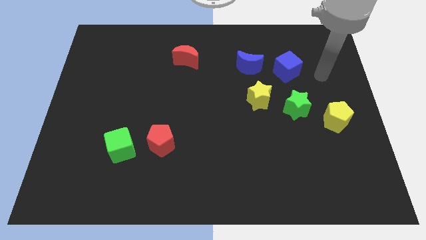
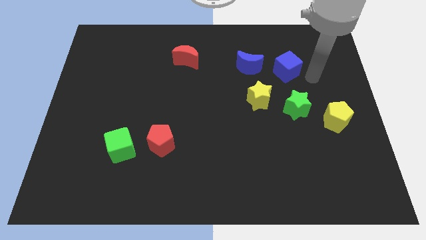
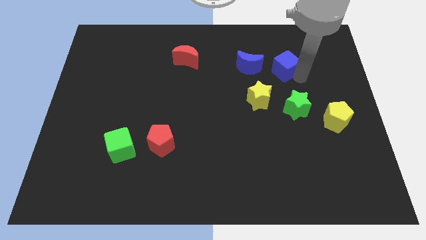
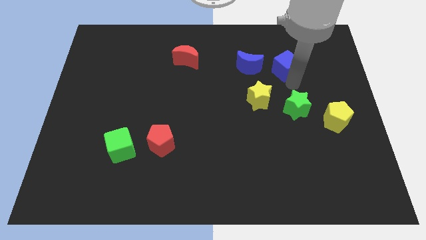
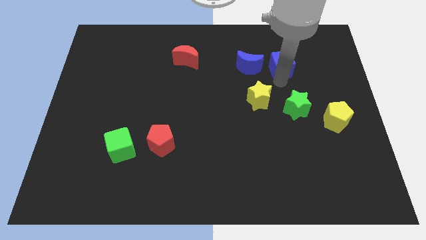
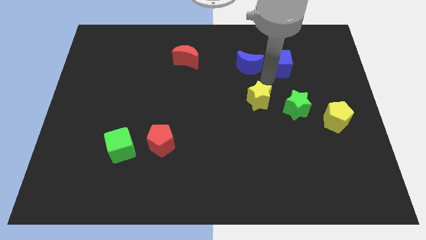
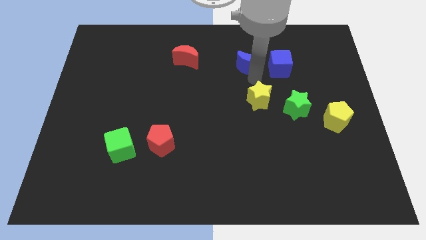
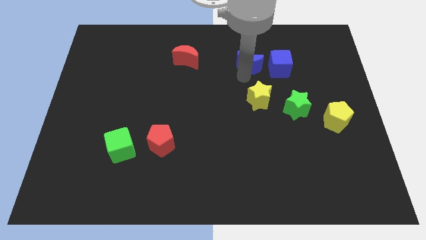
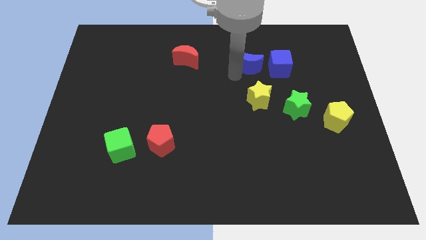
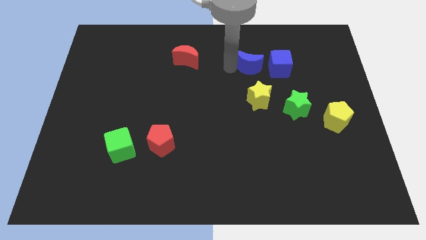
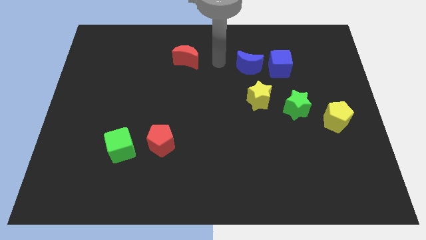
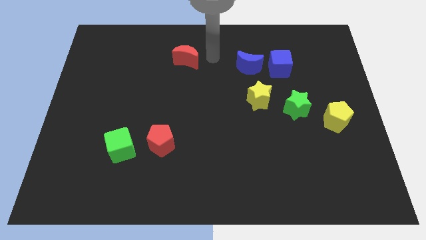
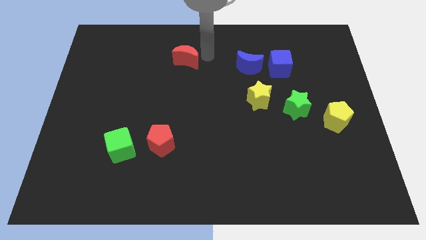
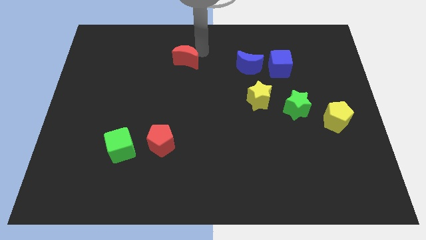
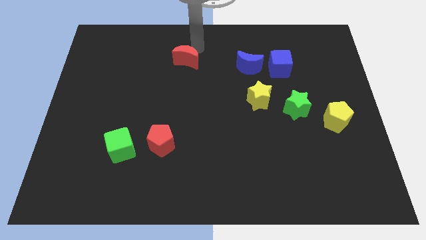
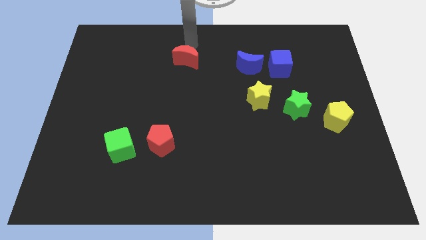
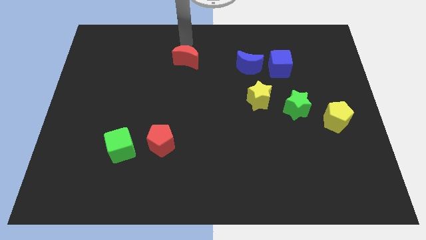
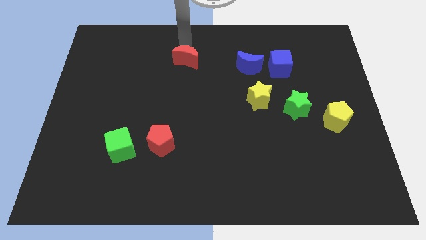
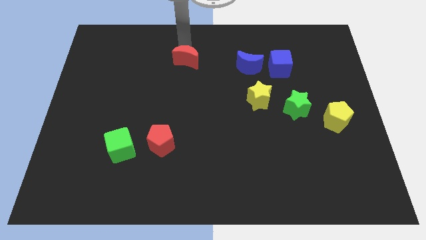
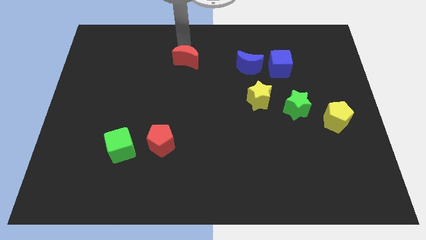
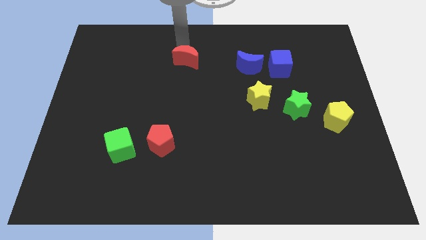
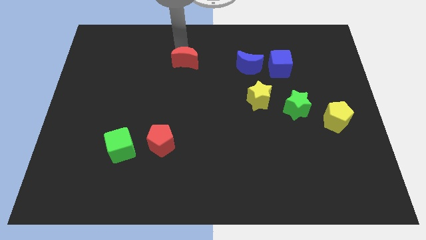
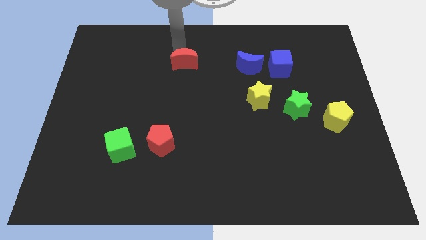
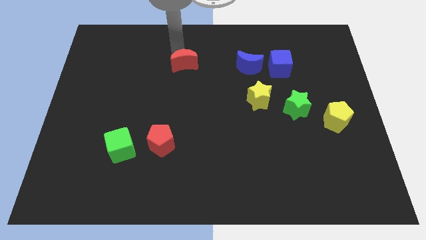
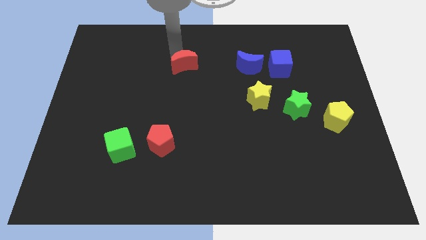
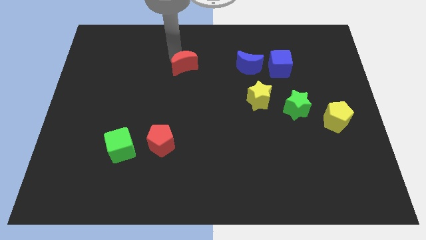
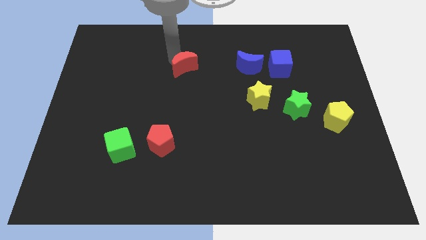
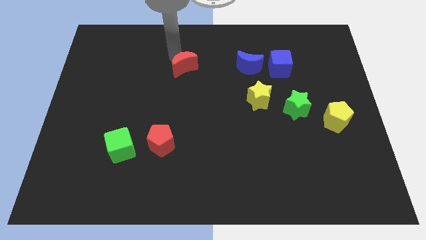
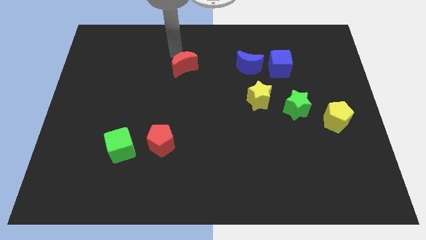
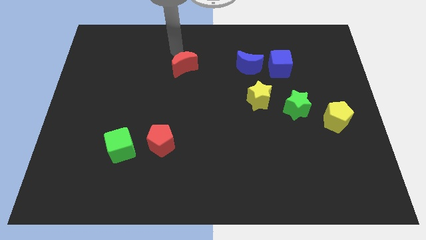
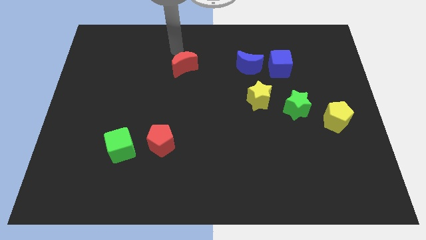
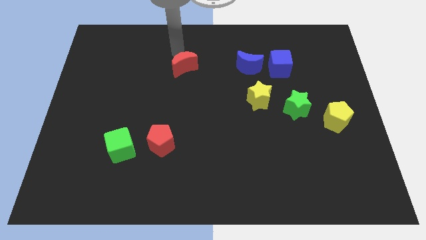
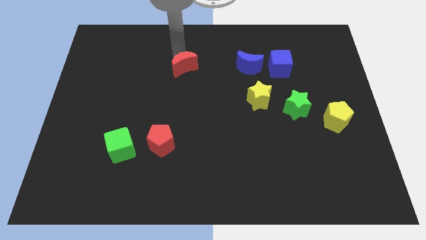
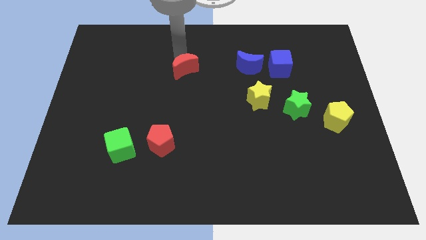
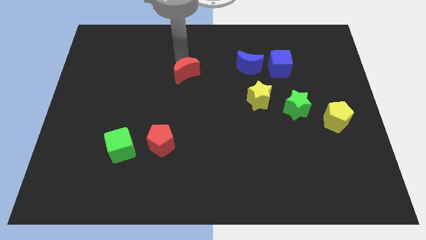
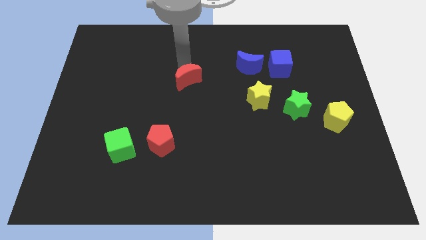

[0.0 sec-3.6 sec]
push the red moon a little bit downwards

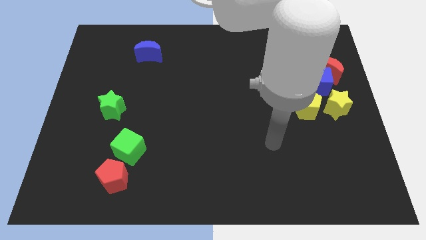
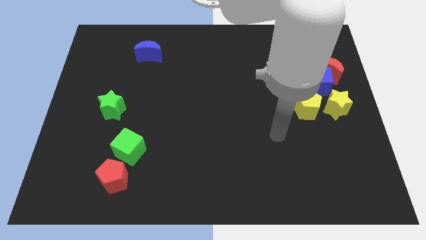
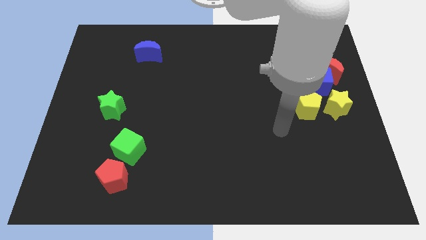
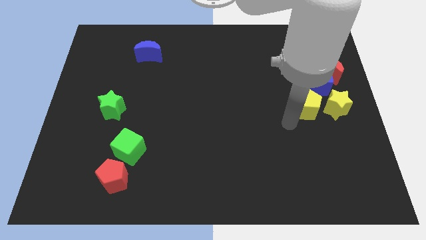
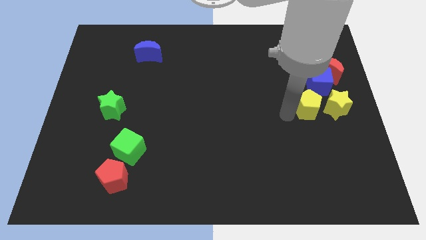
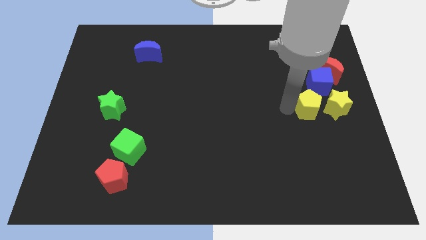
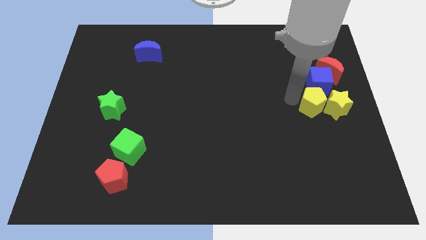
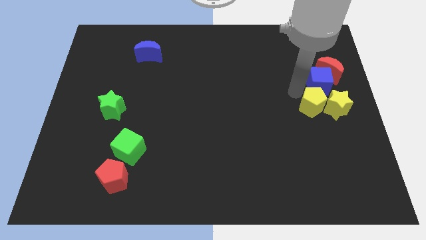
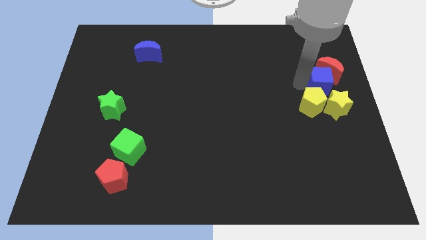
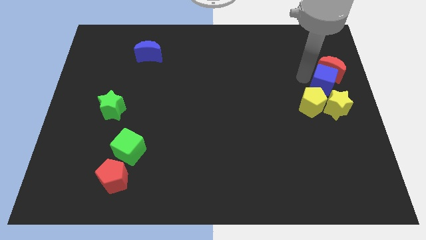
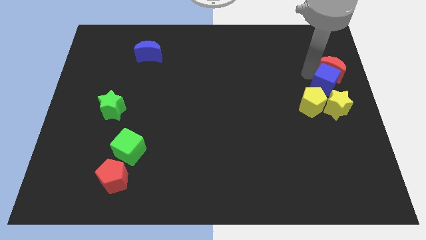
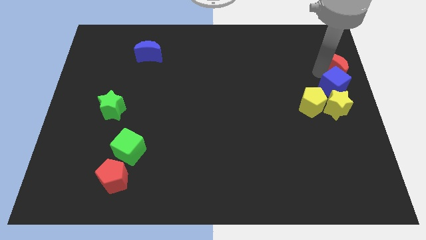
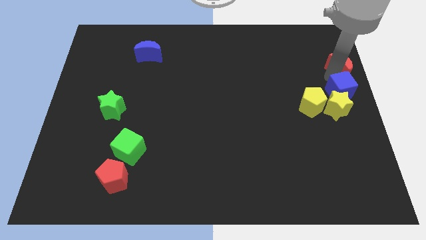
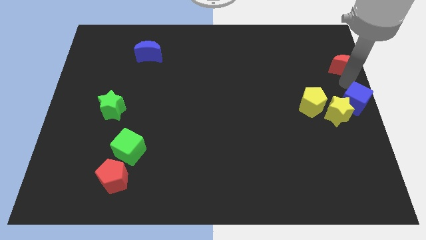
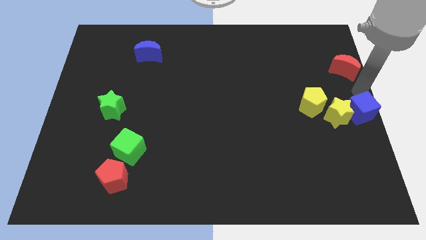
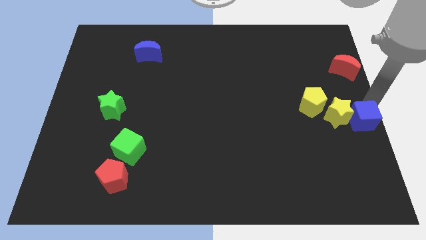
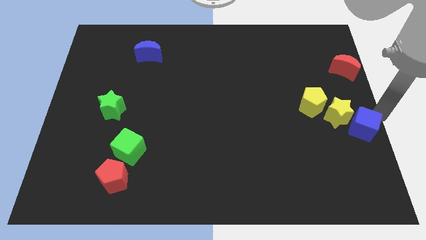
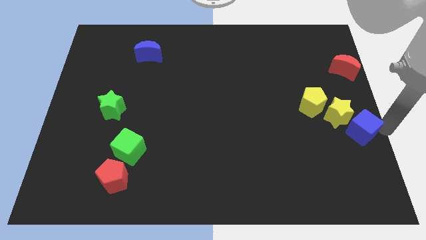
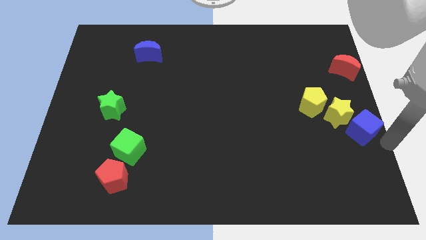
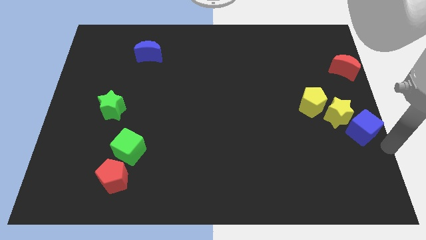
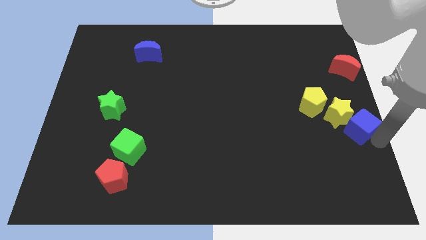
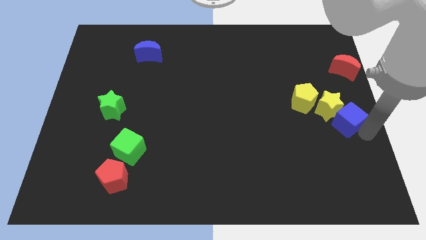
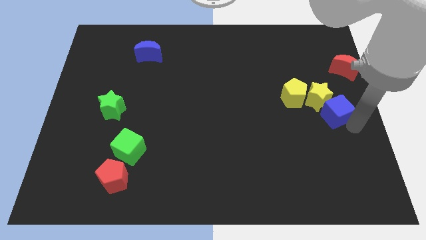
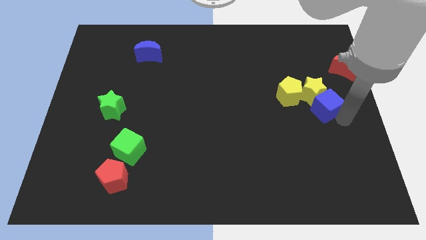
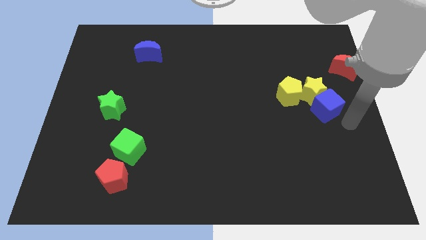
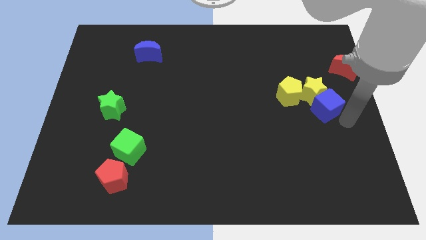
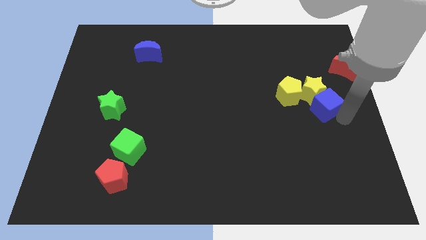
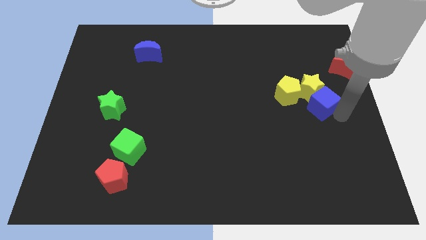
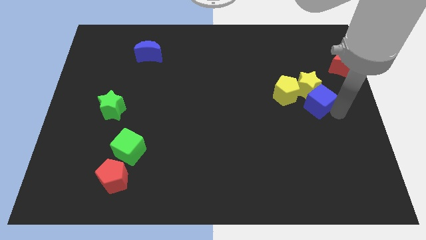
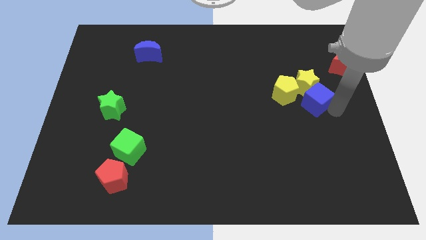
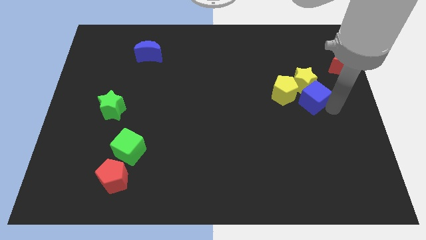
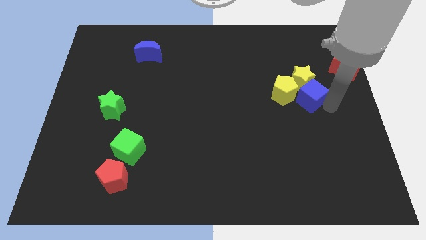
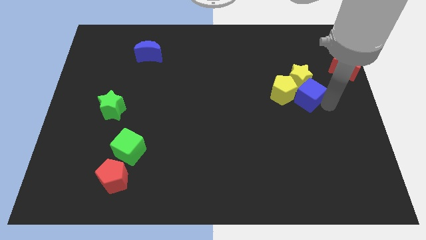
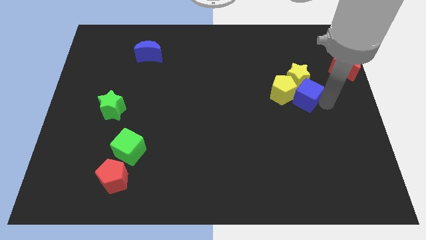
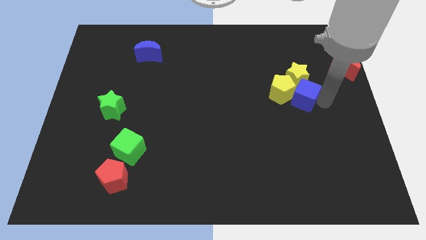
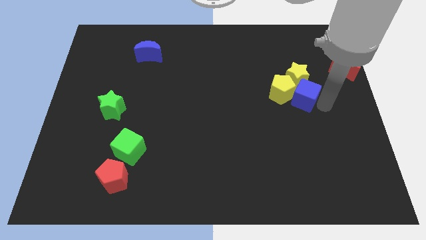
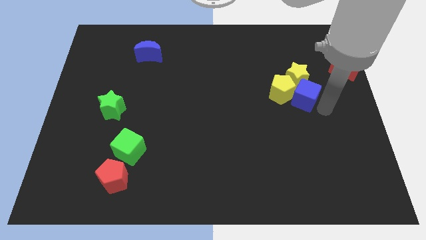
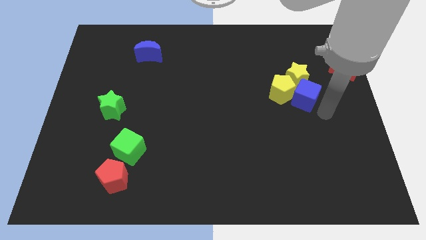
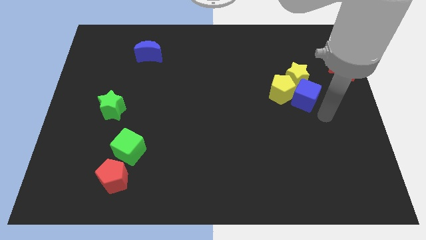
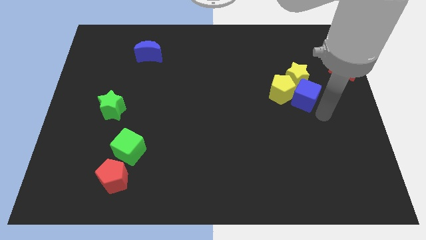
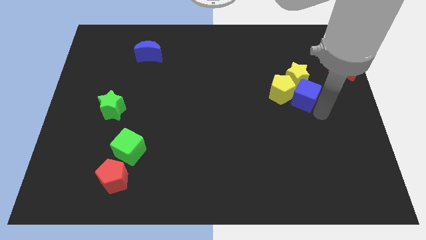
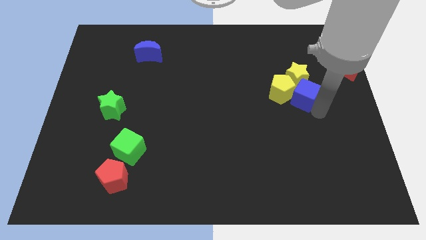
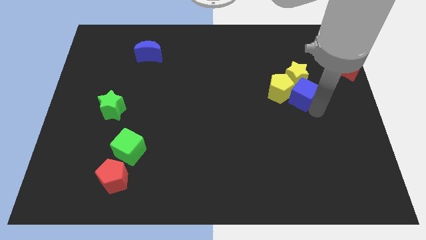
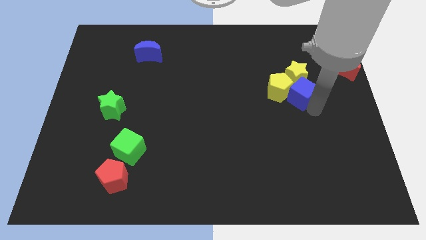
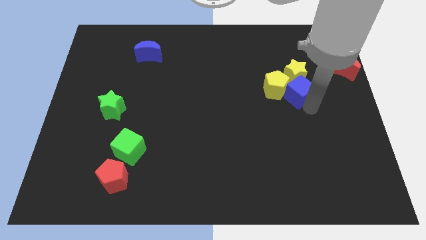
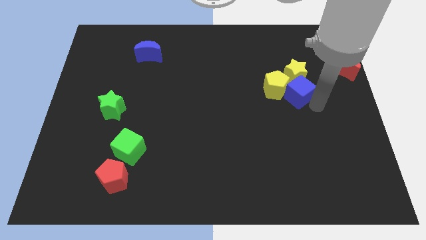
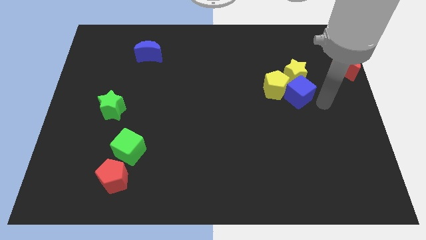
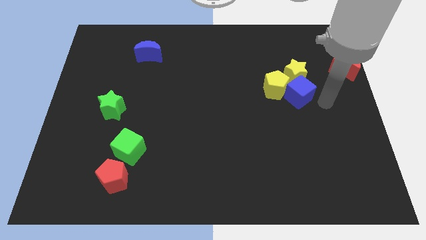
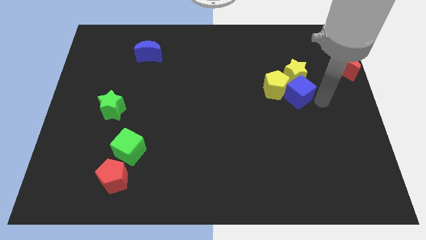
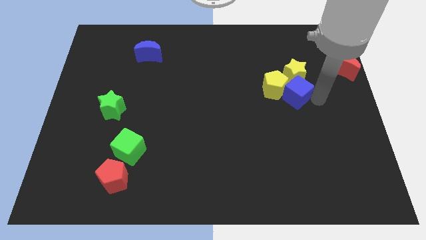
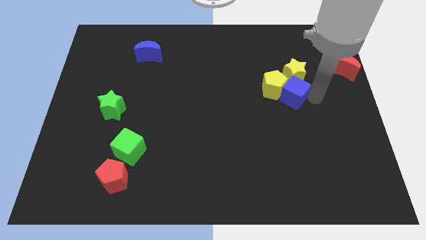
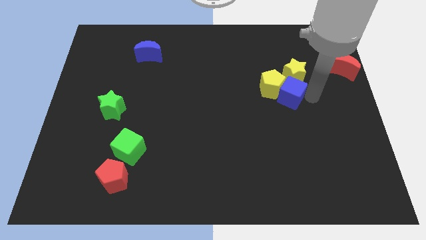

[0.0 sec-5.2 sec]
slide the blue cube to the left slightly
